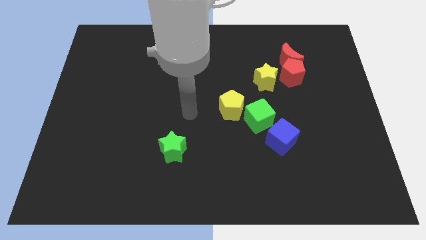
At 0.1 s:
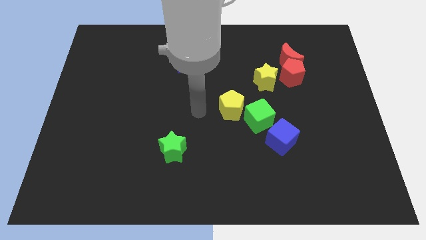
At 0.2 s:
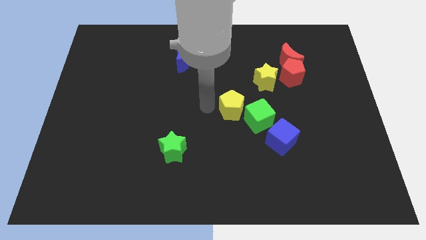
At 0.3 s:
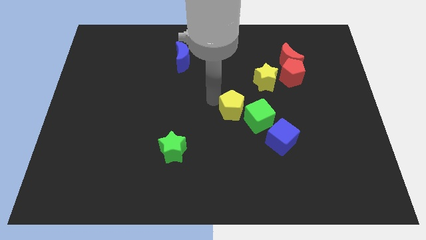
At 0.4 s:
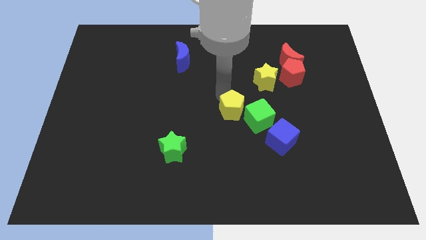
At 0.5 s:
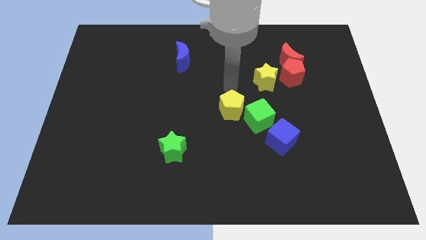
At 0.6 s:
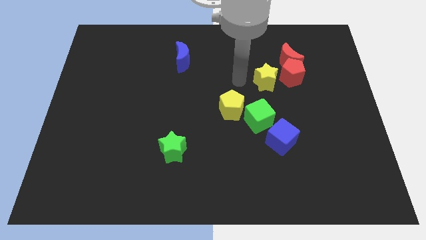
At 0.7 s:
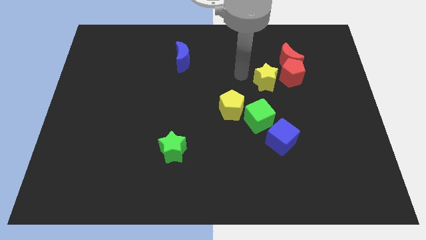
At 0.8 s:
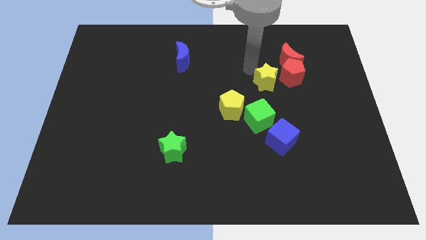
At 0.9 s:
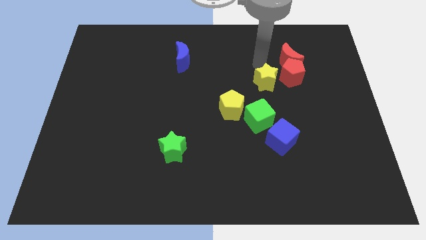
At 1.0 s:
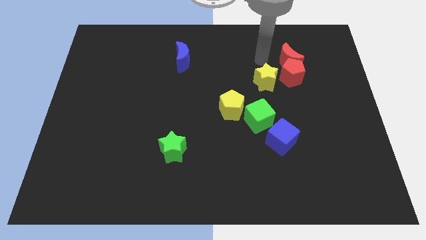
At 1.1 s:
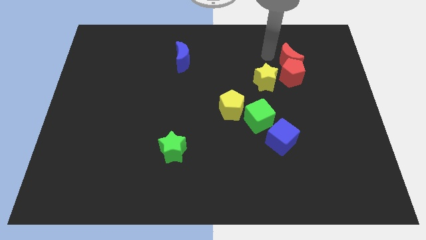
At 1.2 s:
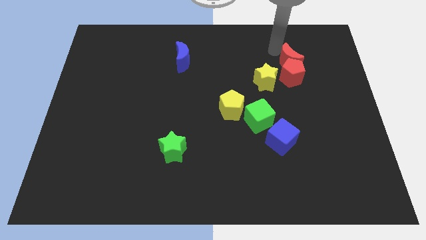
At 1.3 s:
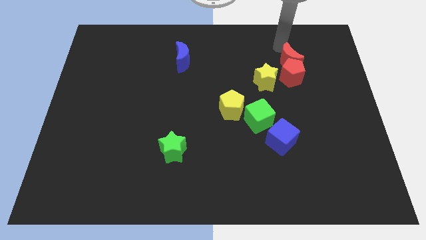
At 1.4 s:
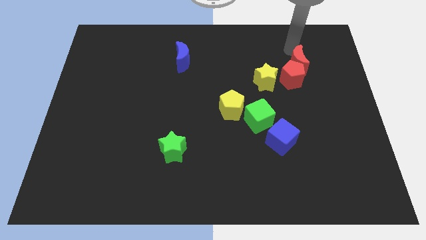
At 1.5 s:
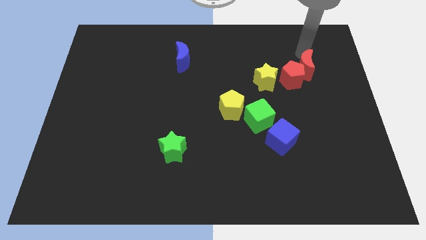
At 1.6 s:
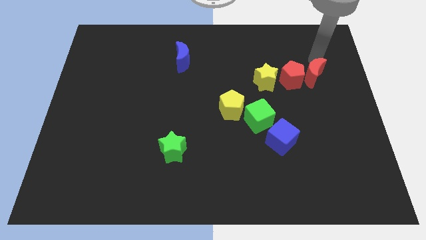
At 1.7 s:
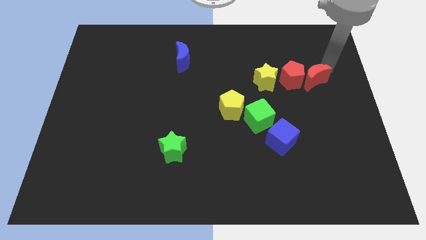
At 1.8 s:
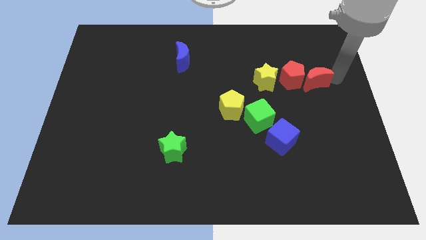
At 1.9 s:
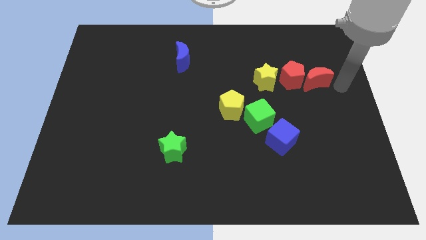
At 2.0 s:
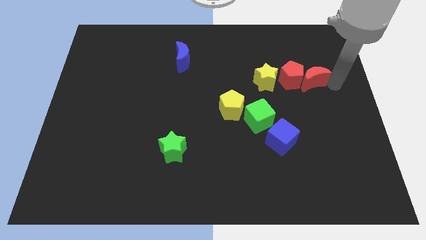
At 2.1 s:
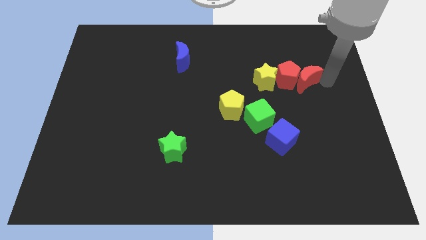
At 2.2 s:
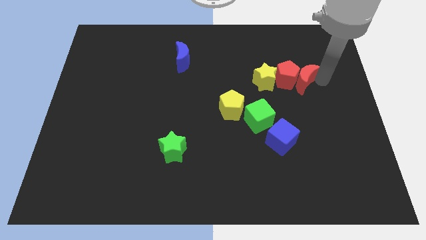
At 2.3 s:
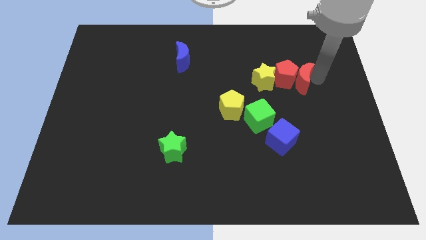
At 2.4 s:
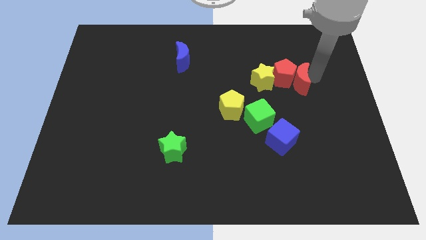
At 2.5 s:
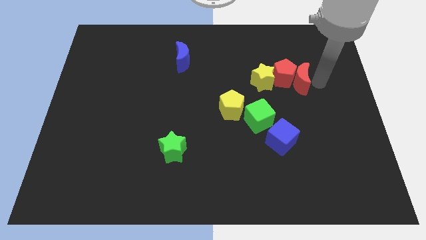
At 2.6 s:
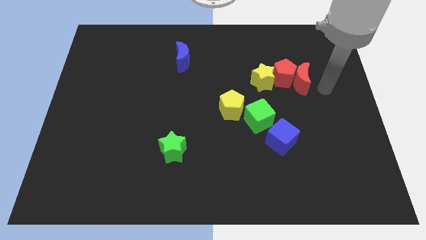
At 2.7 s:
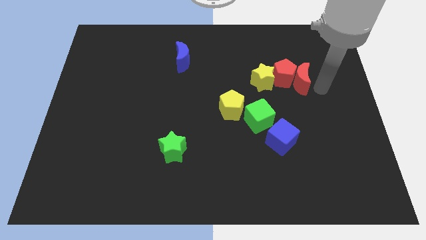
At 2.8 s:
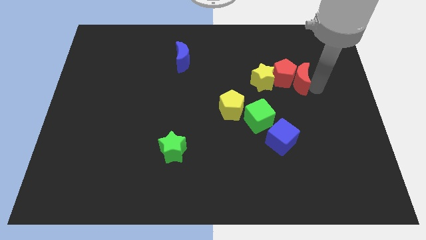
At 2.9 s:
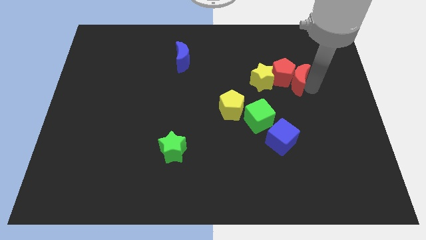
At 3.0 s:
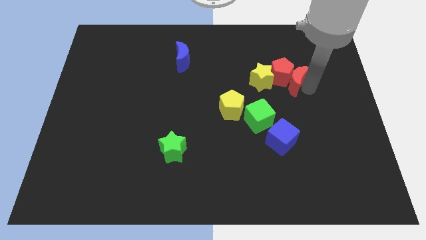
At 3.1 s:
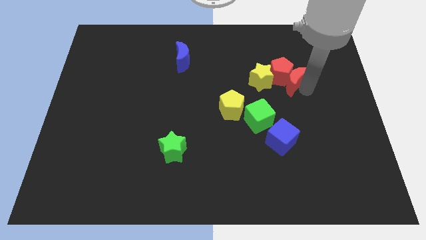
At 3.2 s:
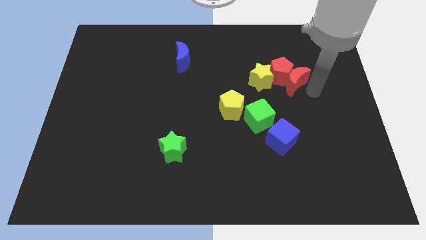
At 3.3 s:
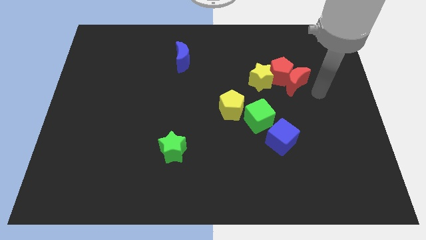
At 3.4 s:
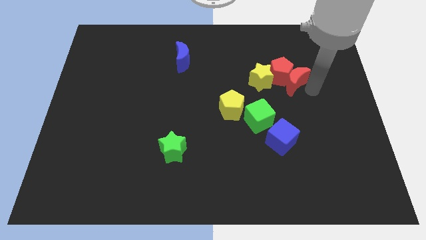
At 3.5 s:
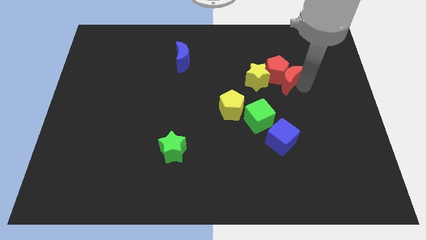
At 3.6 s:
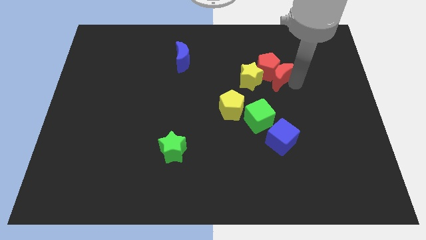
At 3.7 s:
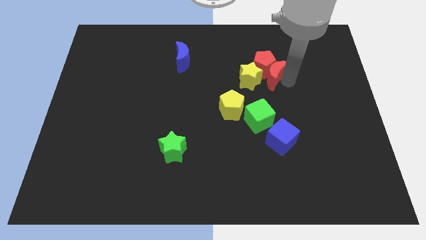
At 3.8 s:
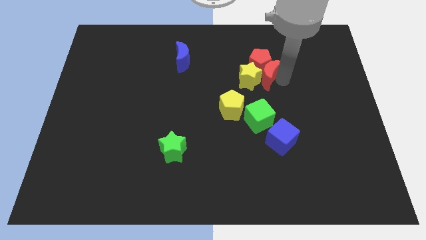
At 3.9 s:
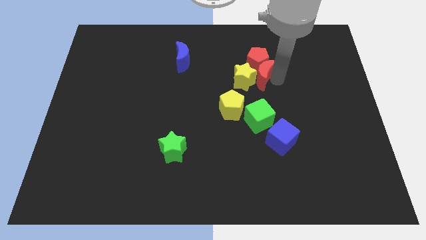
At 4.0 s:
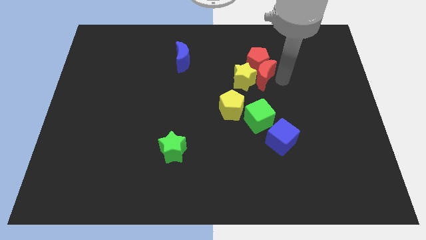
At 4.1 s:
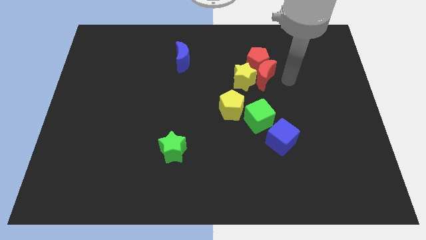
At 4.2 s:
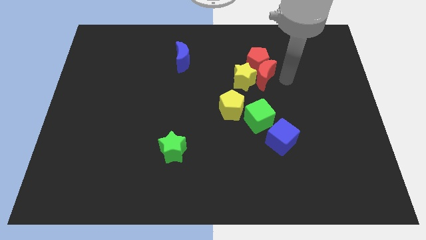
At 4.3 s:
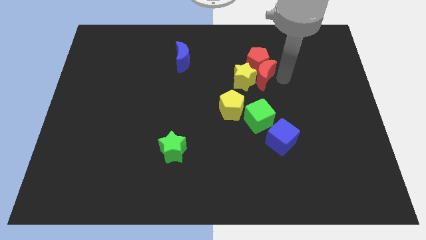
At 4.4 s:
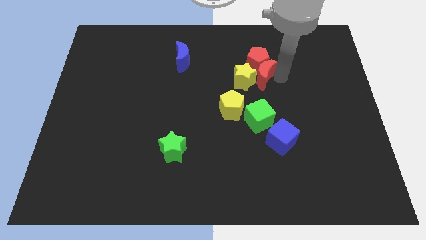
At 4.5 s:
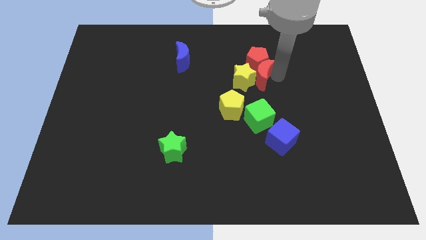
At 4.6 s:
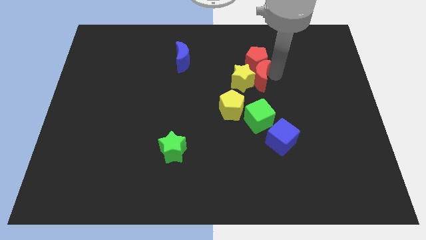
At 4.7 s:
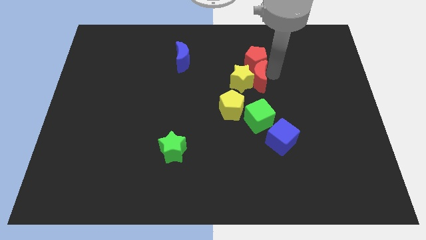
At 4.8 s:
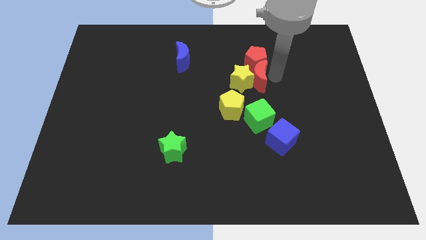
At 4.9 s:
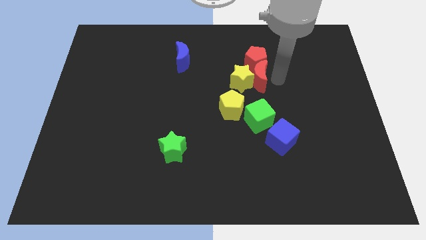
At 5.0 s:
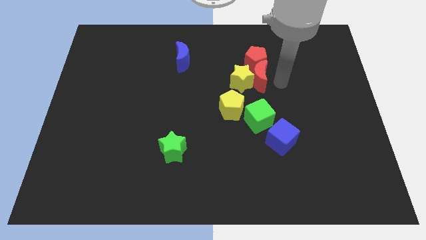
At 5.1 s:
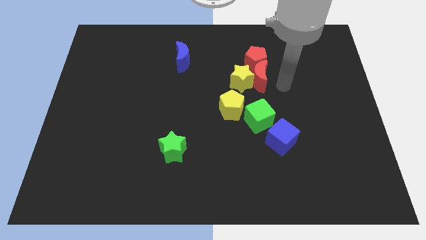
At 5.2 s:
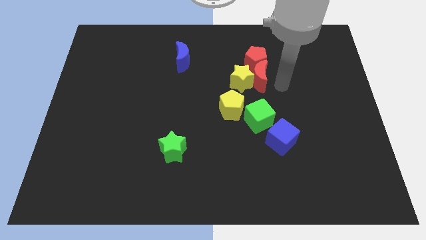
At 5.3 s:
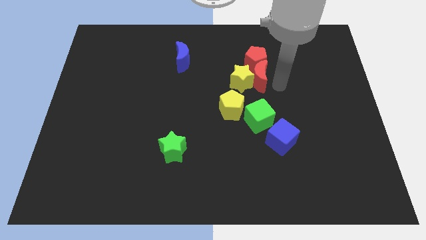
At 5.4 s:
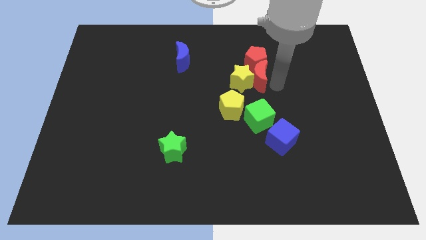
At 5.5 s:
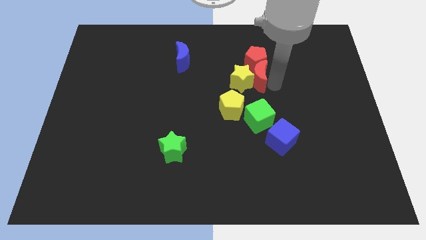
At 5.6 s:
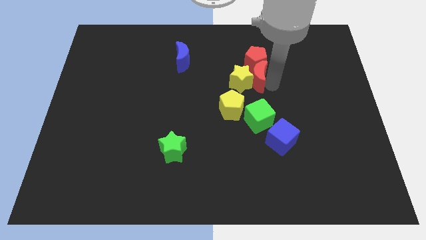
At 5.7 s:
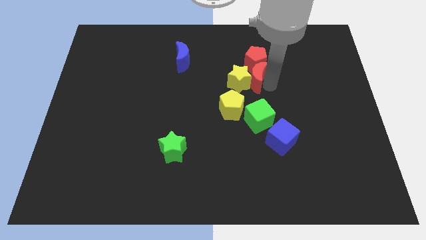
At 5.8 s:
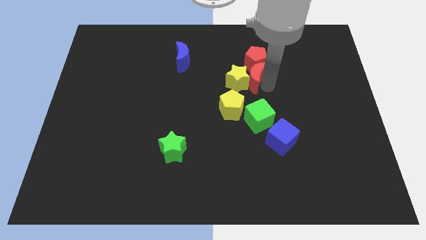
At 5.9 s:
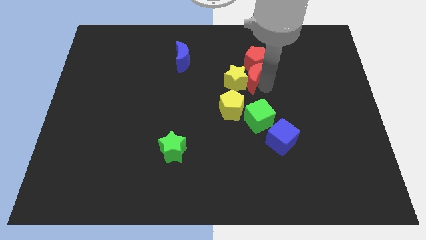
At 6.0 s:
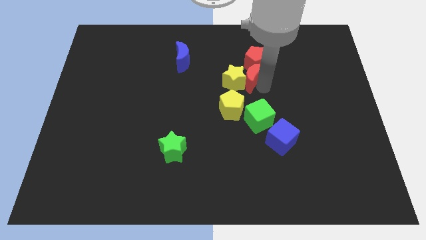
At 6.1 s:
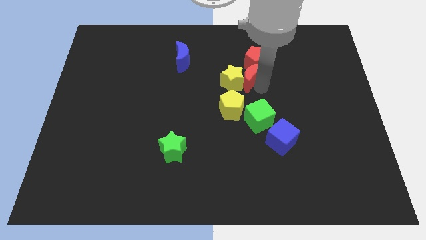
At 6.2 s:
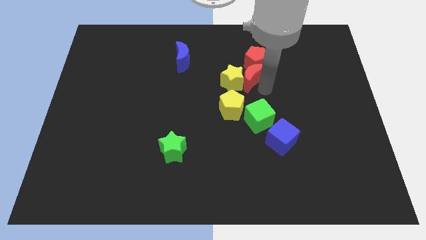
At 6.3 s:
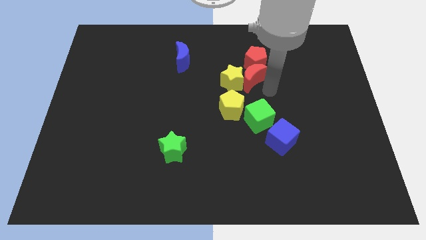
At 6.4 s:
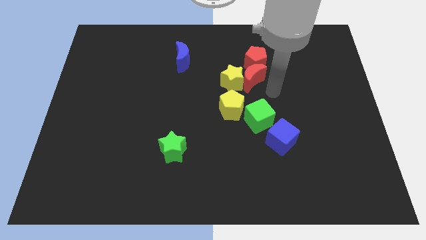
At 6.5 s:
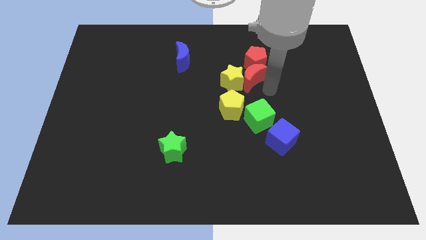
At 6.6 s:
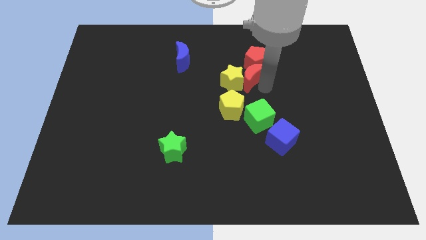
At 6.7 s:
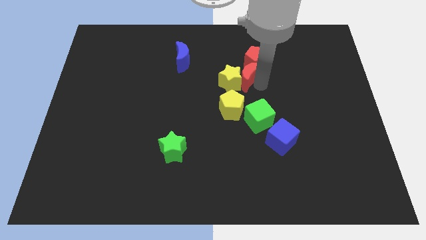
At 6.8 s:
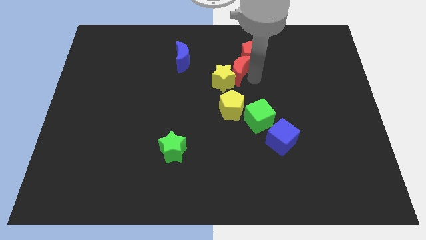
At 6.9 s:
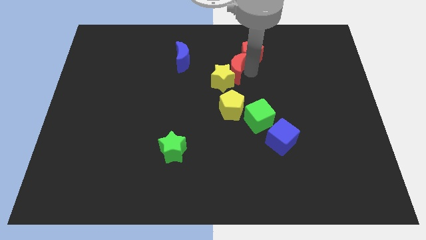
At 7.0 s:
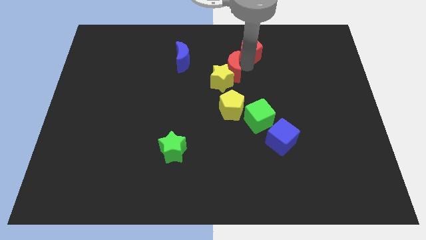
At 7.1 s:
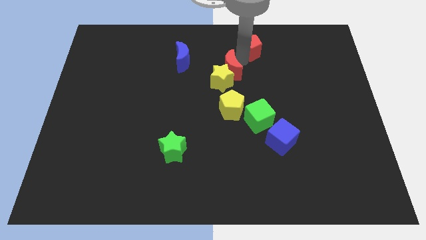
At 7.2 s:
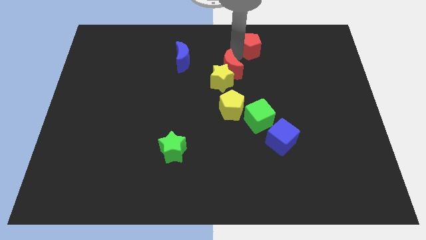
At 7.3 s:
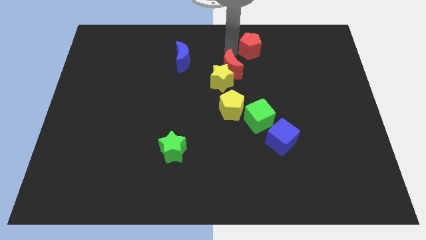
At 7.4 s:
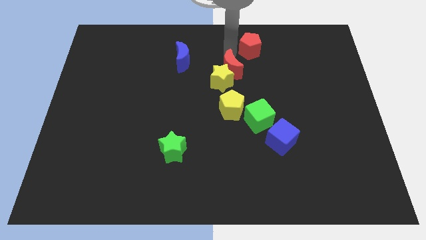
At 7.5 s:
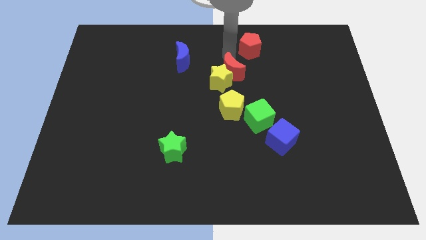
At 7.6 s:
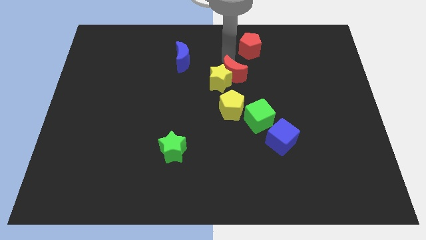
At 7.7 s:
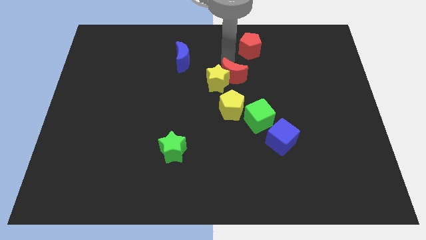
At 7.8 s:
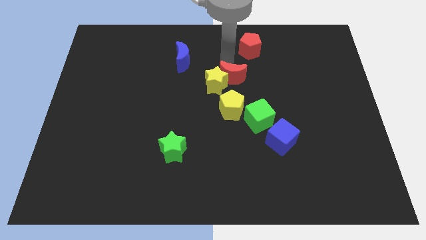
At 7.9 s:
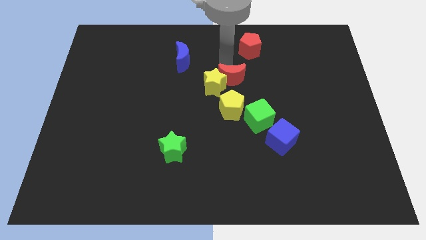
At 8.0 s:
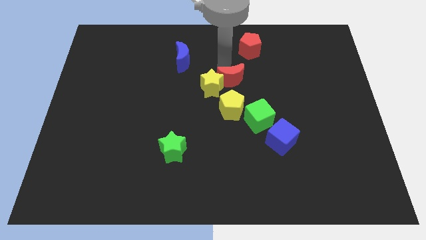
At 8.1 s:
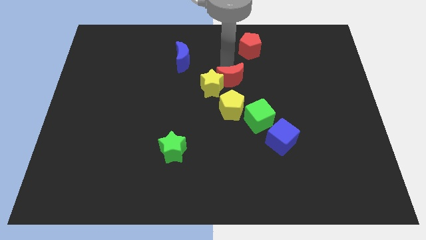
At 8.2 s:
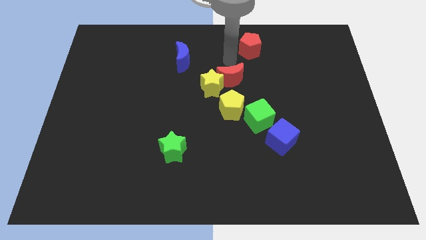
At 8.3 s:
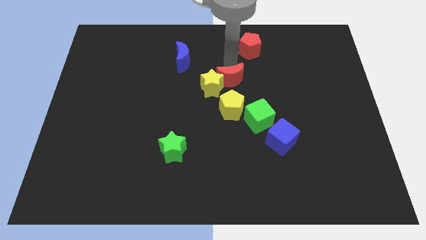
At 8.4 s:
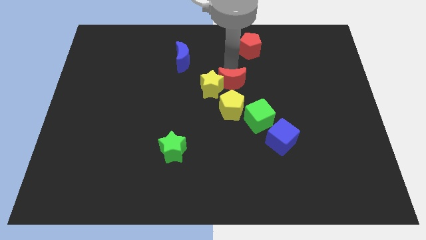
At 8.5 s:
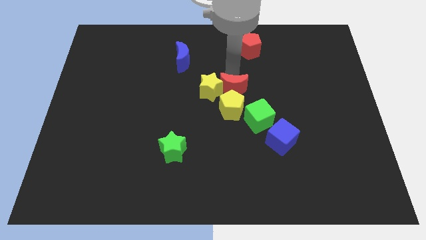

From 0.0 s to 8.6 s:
slide the red moon close to the yellow pentagon
